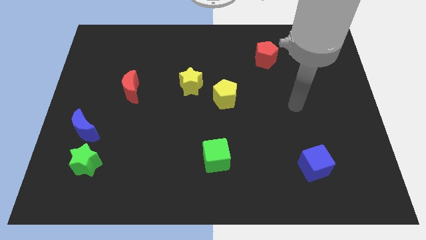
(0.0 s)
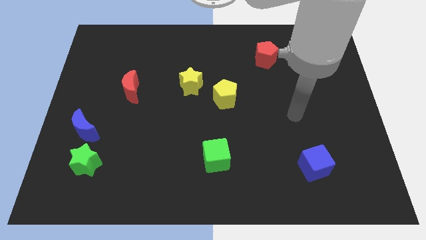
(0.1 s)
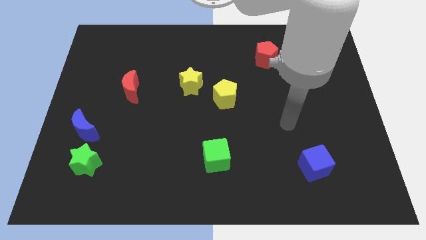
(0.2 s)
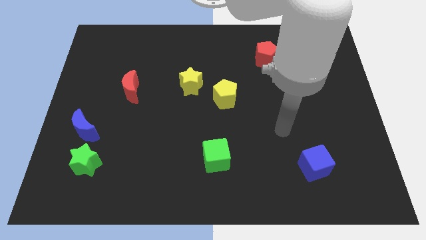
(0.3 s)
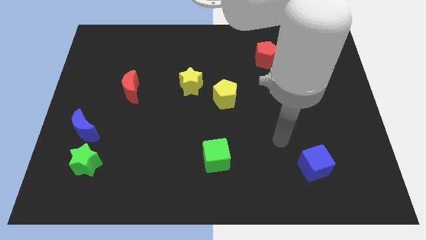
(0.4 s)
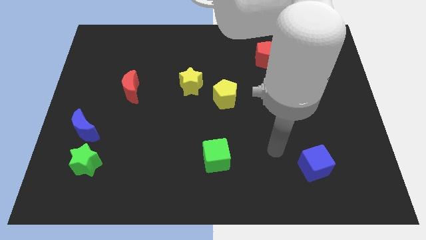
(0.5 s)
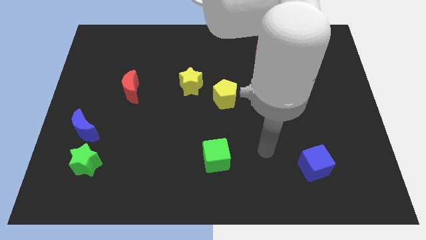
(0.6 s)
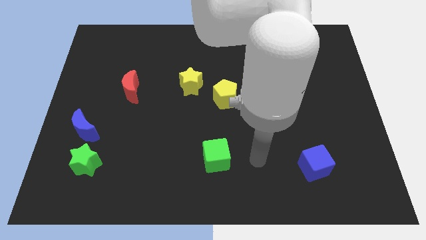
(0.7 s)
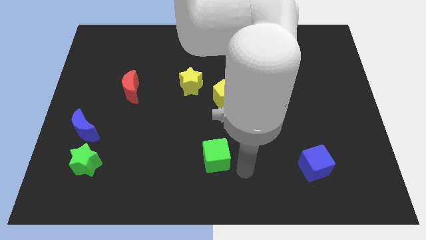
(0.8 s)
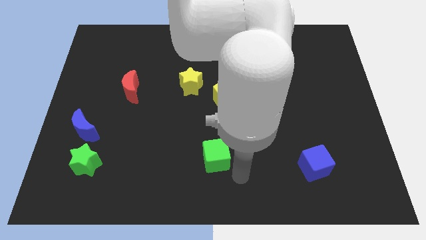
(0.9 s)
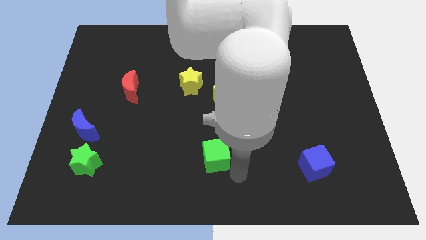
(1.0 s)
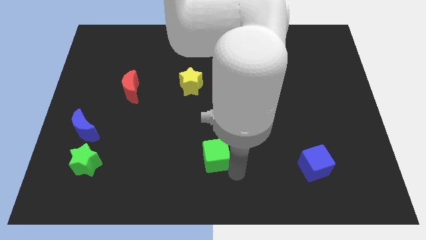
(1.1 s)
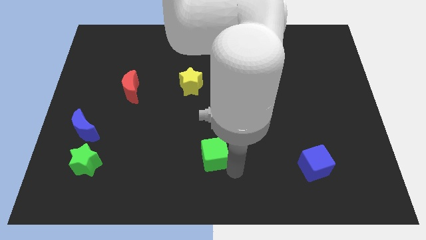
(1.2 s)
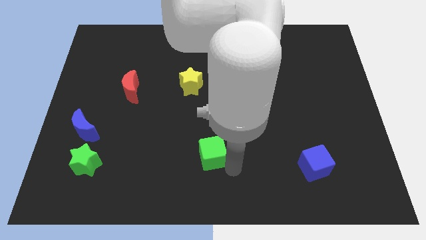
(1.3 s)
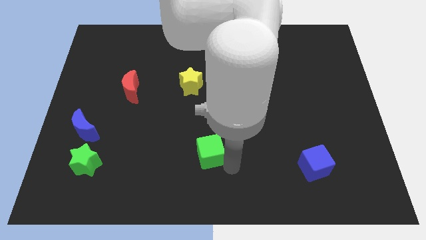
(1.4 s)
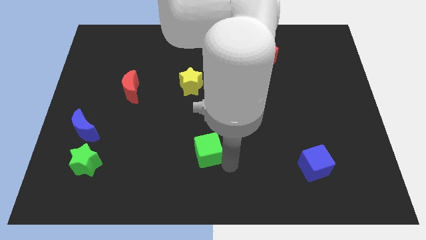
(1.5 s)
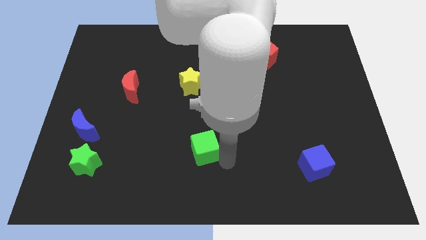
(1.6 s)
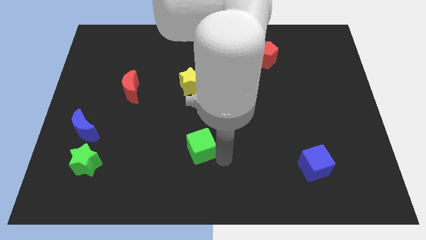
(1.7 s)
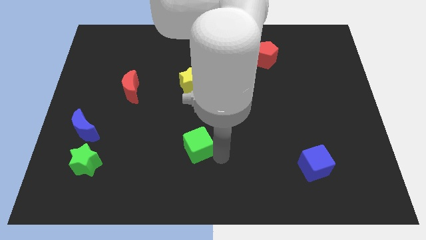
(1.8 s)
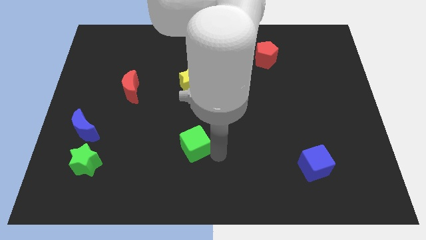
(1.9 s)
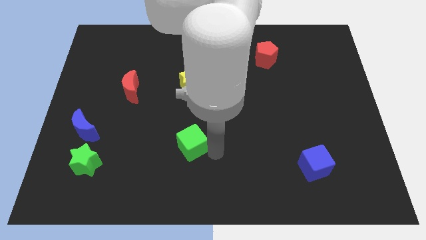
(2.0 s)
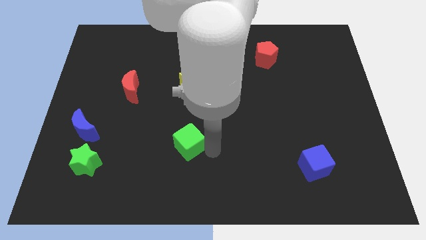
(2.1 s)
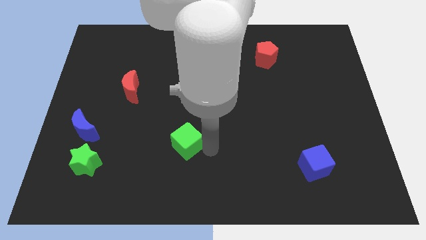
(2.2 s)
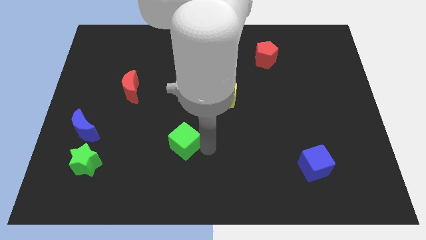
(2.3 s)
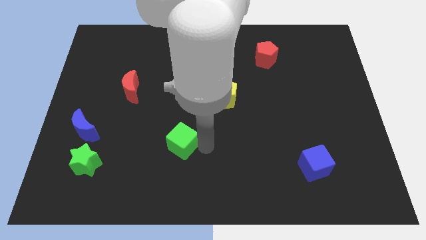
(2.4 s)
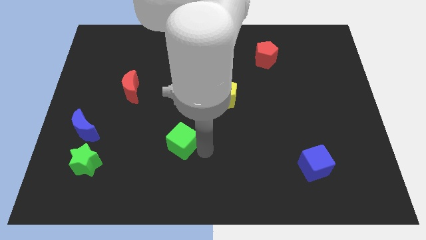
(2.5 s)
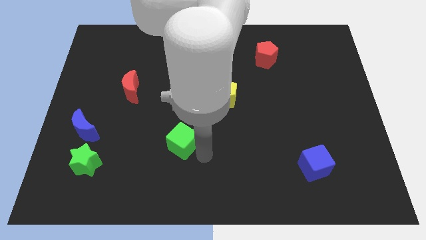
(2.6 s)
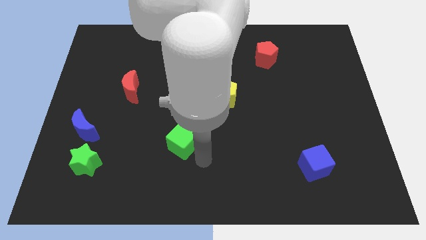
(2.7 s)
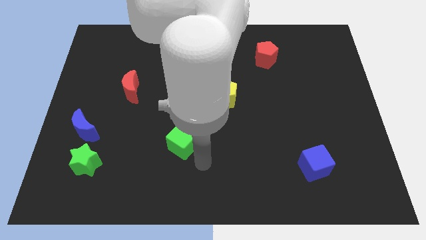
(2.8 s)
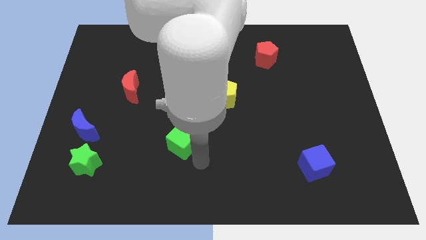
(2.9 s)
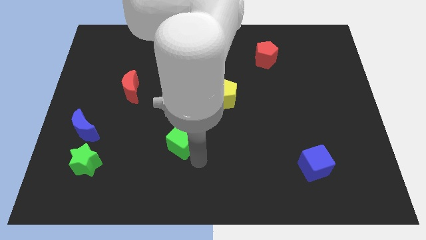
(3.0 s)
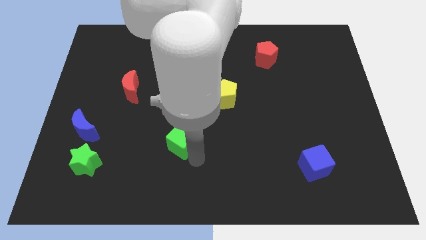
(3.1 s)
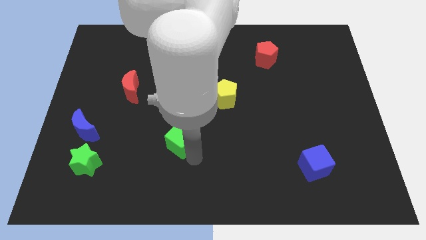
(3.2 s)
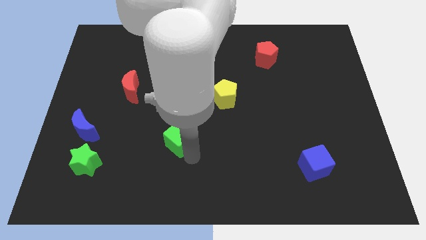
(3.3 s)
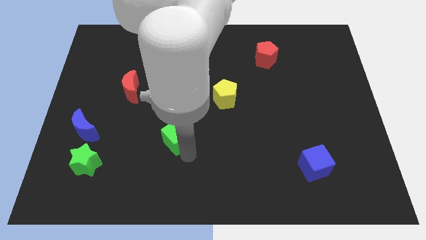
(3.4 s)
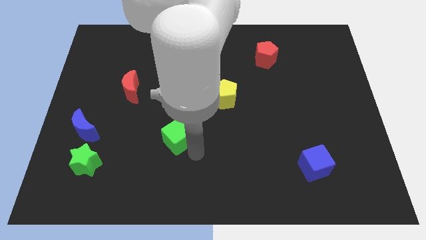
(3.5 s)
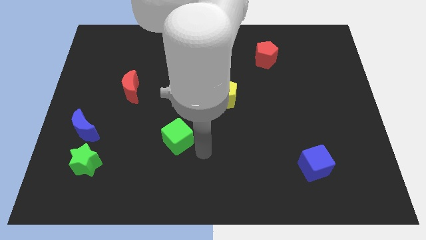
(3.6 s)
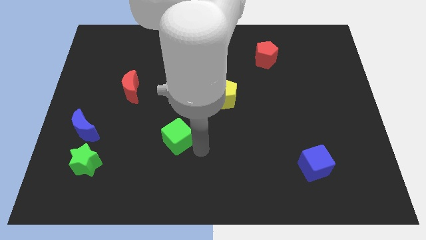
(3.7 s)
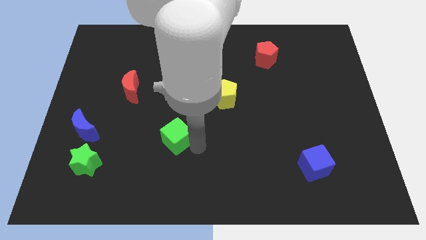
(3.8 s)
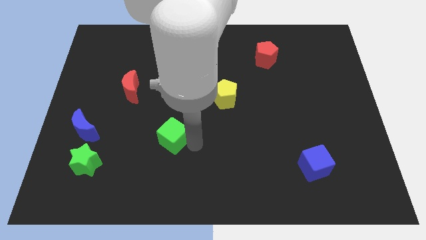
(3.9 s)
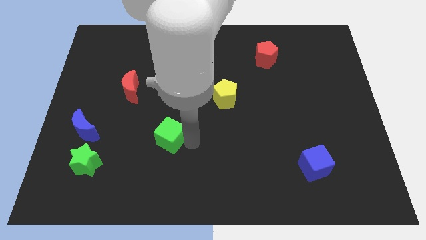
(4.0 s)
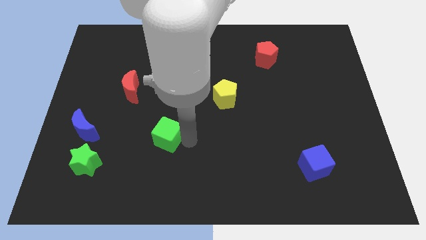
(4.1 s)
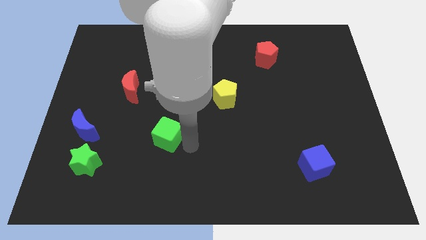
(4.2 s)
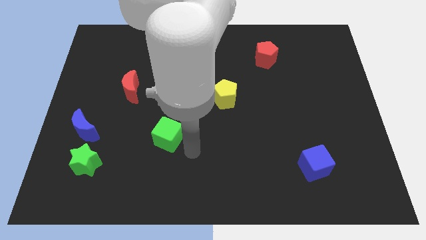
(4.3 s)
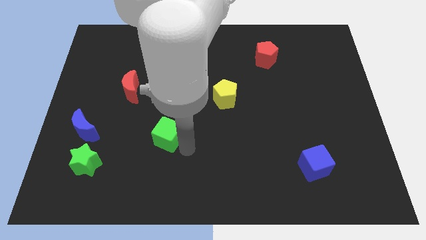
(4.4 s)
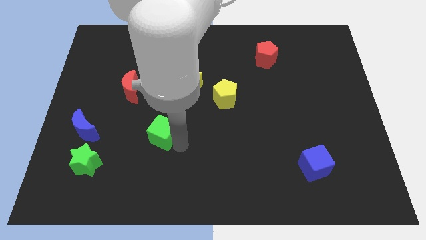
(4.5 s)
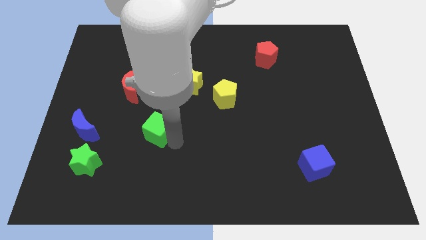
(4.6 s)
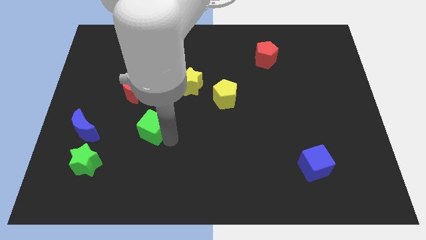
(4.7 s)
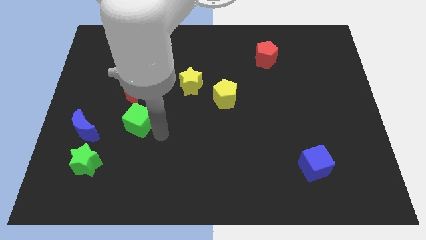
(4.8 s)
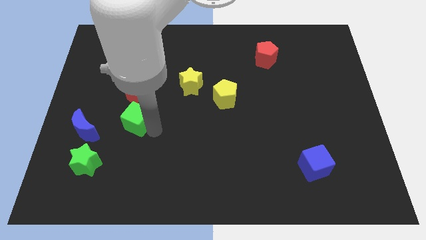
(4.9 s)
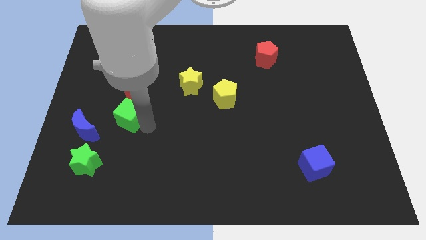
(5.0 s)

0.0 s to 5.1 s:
move the green cube to the top right of the blue moon

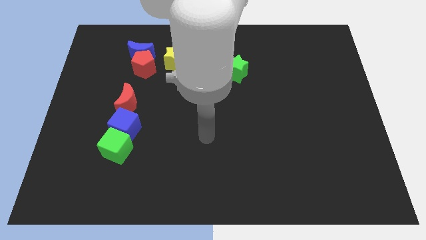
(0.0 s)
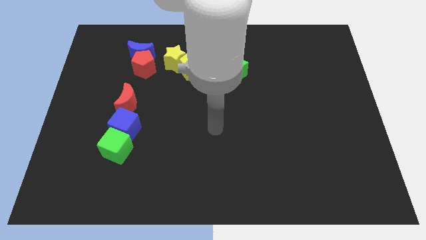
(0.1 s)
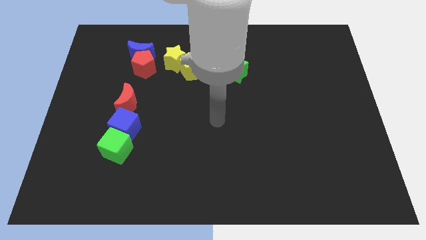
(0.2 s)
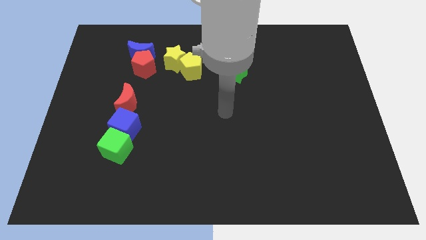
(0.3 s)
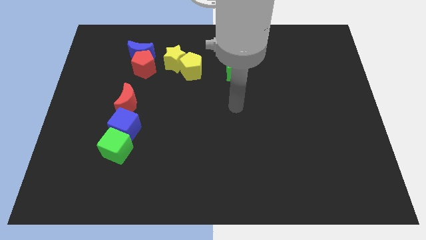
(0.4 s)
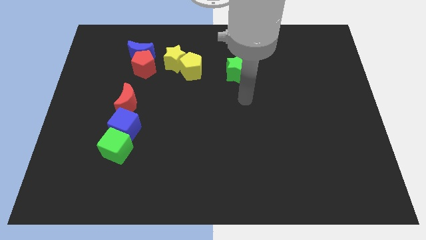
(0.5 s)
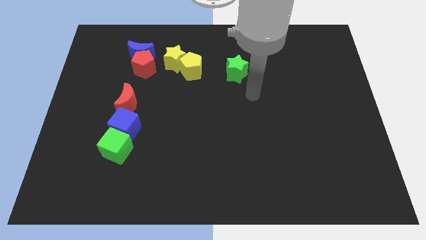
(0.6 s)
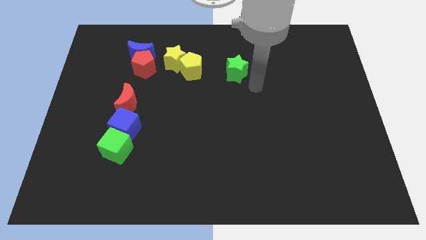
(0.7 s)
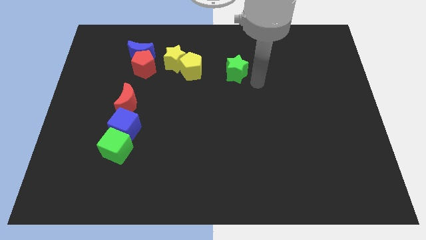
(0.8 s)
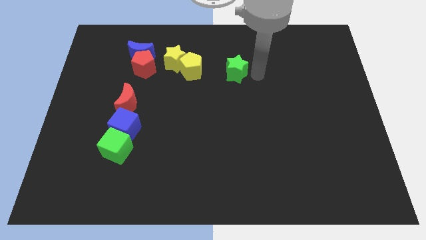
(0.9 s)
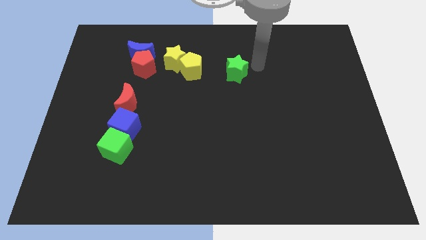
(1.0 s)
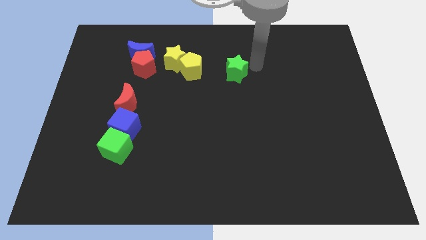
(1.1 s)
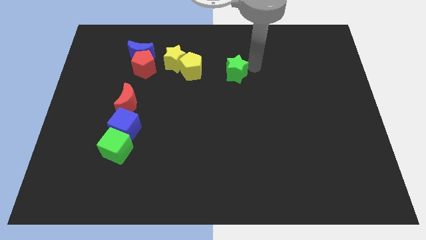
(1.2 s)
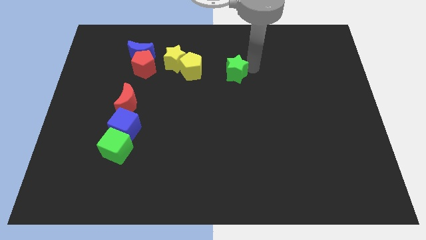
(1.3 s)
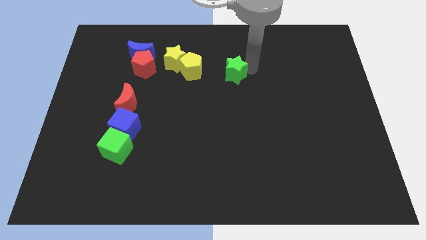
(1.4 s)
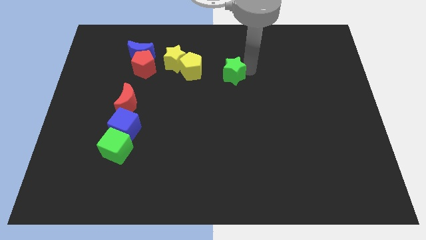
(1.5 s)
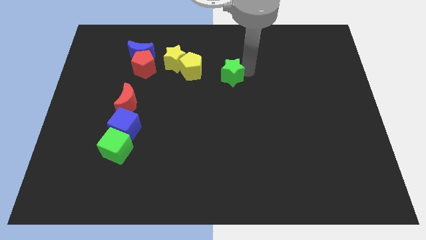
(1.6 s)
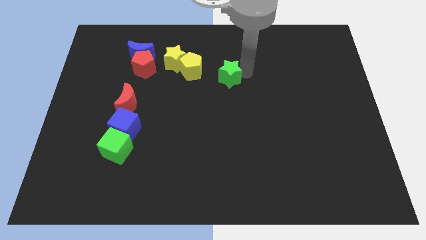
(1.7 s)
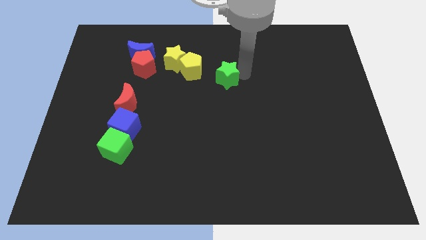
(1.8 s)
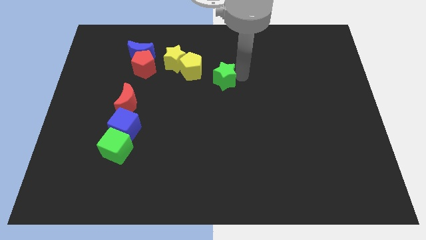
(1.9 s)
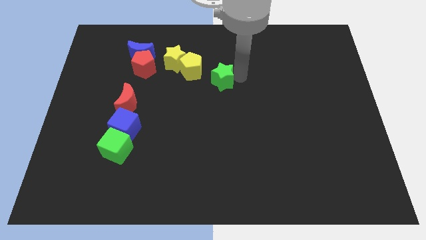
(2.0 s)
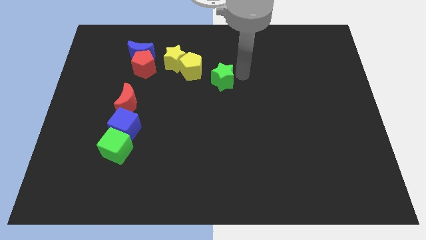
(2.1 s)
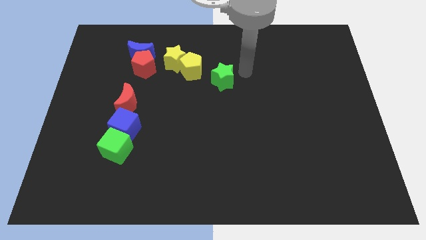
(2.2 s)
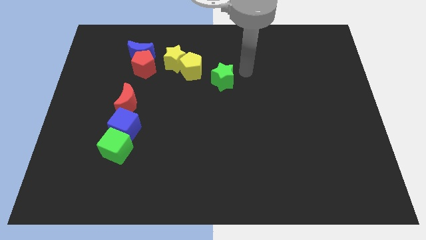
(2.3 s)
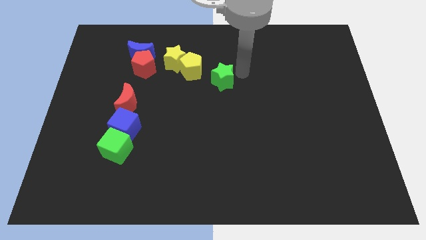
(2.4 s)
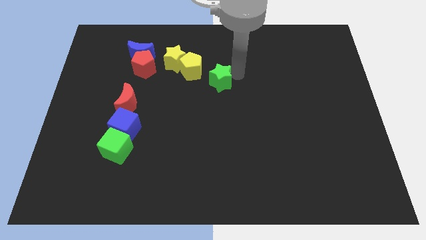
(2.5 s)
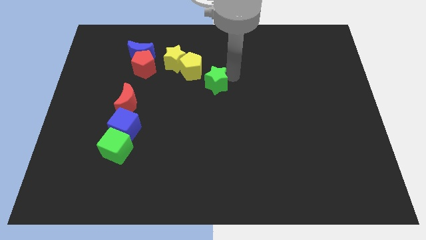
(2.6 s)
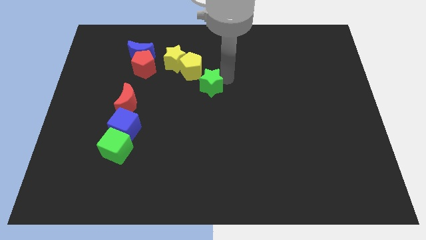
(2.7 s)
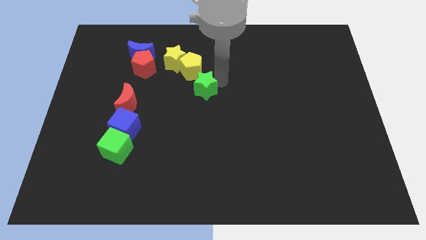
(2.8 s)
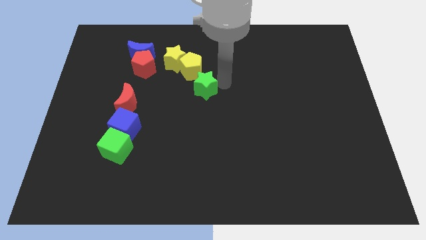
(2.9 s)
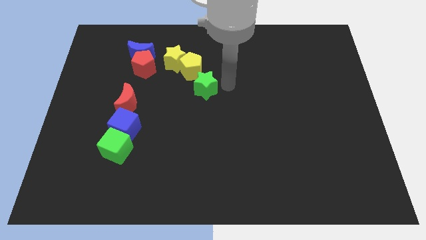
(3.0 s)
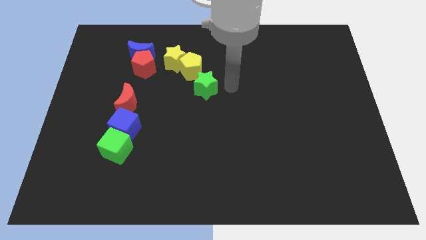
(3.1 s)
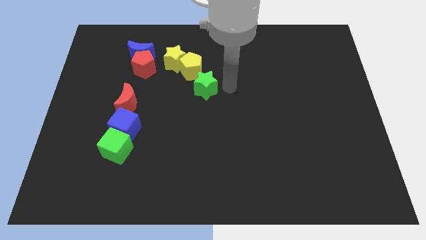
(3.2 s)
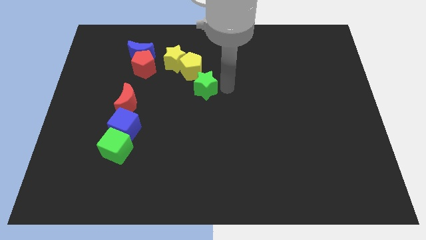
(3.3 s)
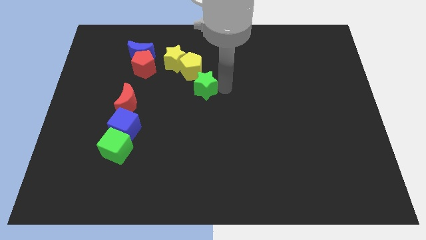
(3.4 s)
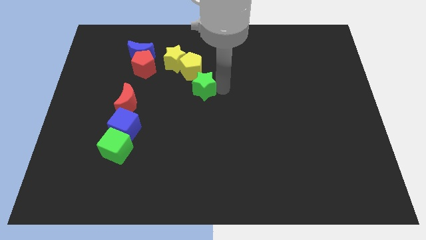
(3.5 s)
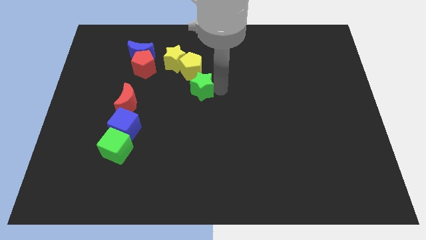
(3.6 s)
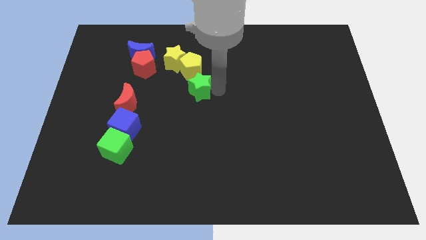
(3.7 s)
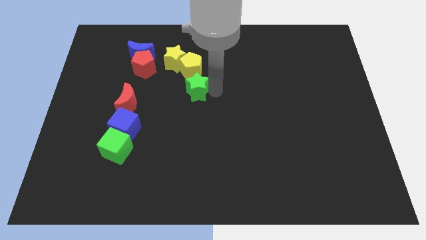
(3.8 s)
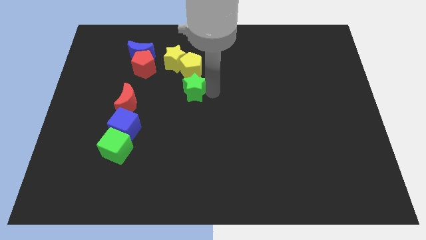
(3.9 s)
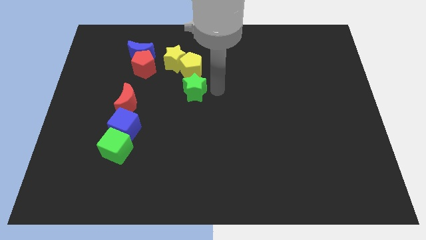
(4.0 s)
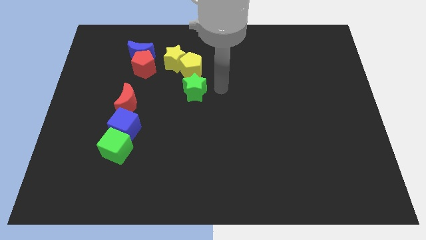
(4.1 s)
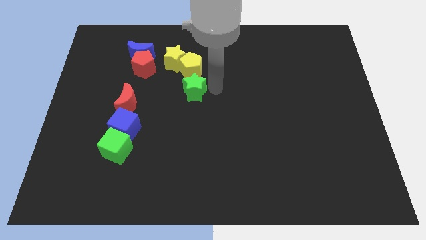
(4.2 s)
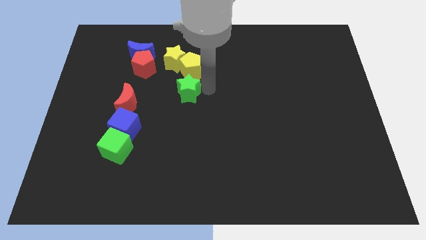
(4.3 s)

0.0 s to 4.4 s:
push the green star below the yellow star
